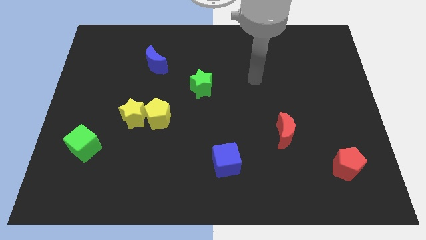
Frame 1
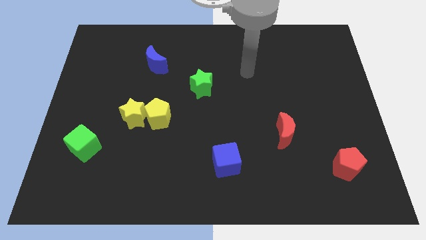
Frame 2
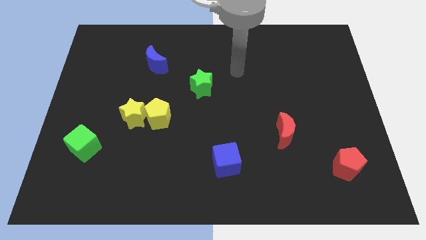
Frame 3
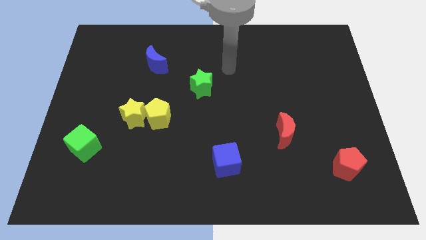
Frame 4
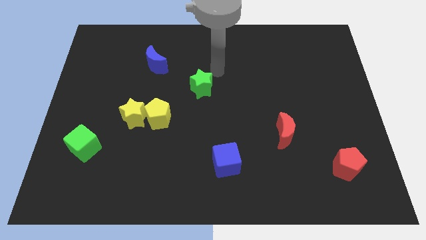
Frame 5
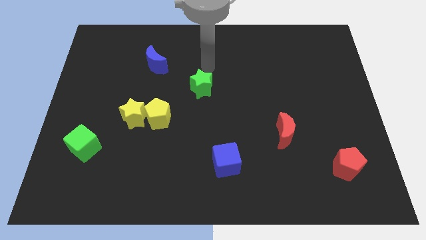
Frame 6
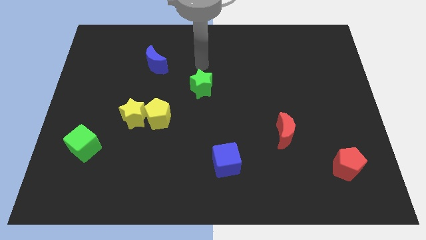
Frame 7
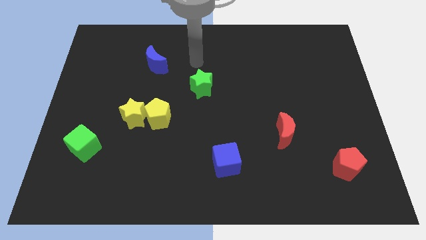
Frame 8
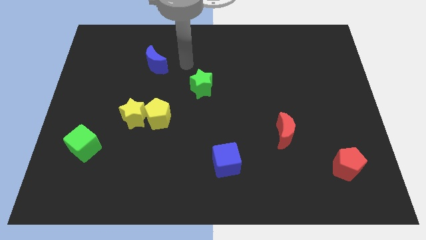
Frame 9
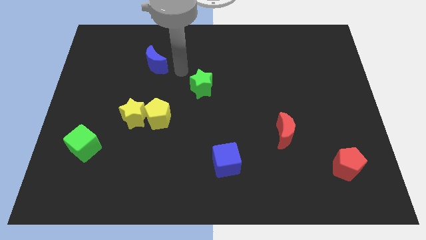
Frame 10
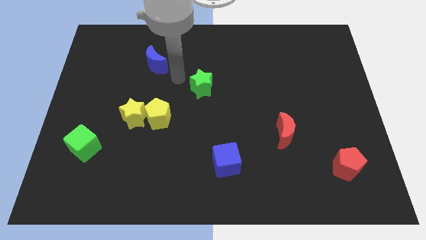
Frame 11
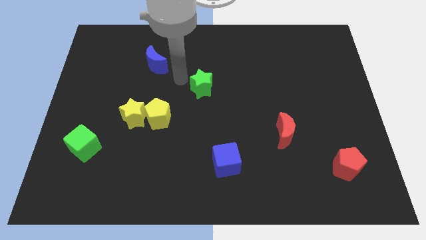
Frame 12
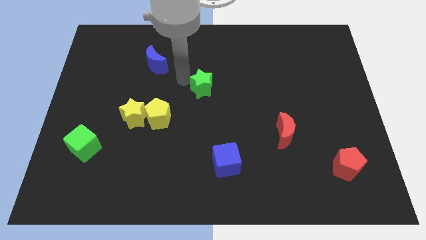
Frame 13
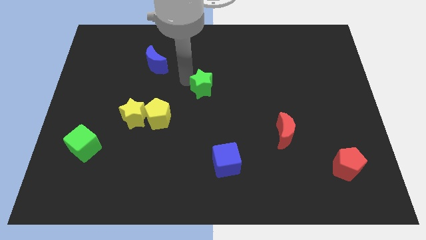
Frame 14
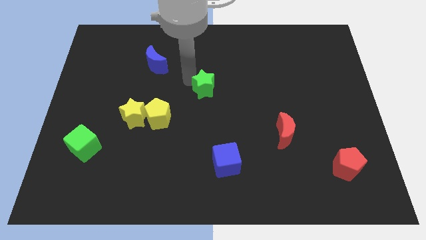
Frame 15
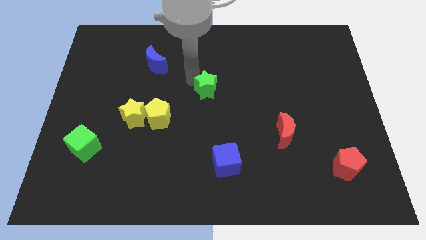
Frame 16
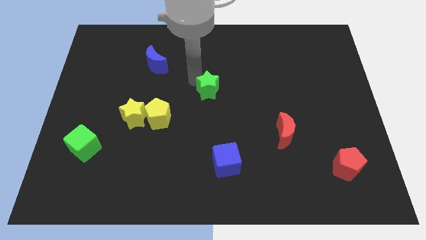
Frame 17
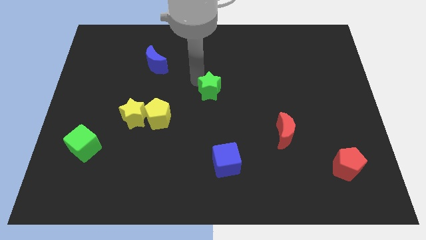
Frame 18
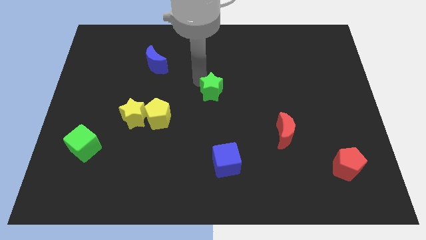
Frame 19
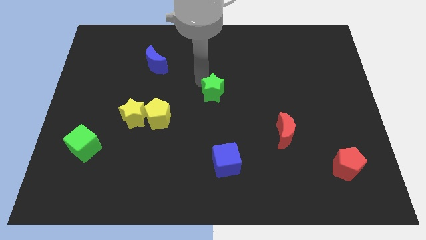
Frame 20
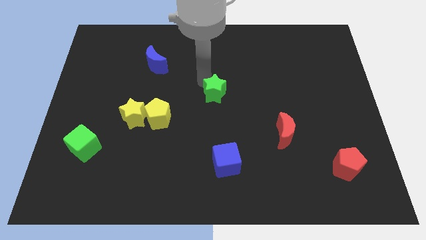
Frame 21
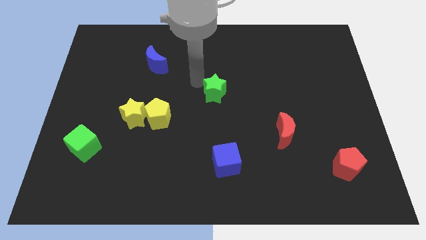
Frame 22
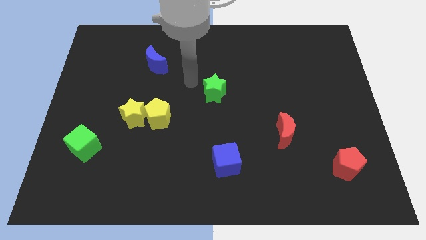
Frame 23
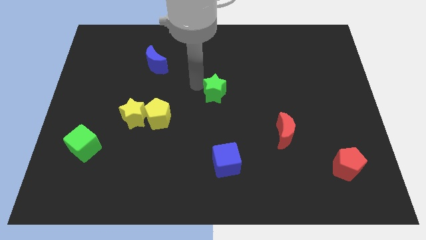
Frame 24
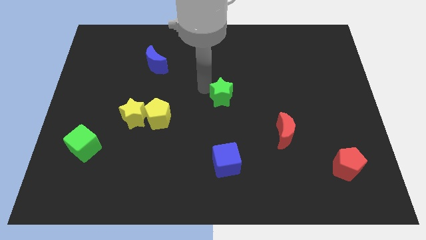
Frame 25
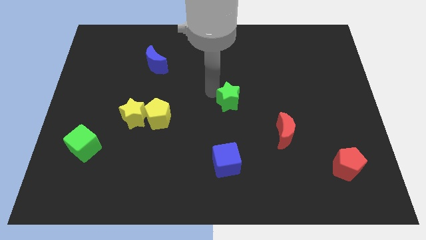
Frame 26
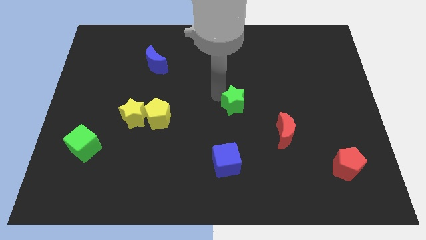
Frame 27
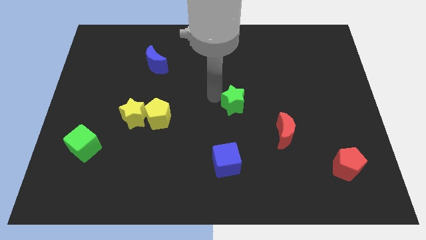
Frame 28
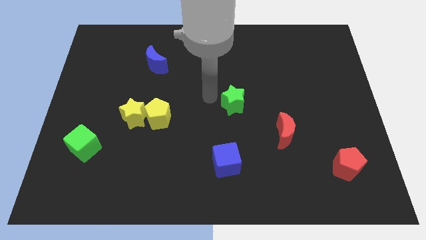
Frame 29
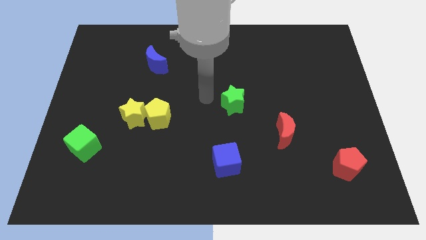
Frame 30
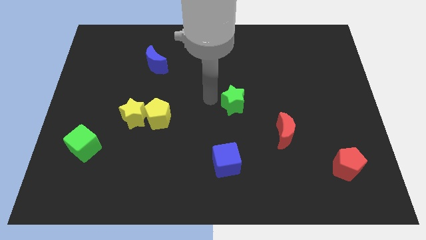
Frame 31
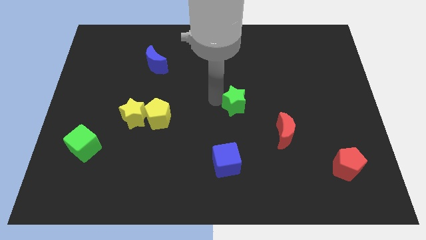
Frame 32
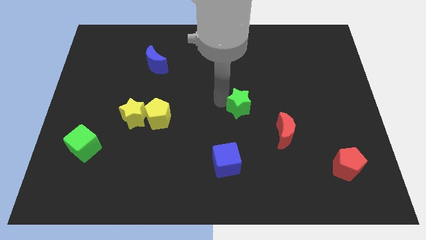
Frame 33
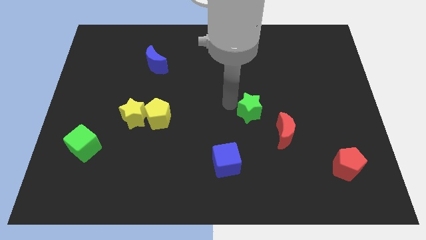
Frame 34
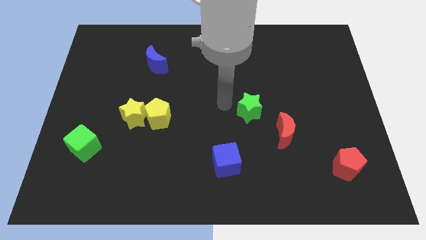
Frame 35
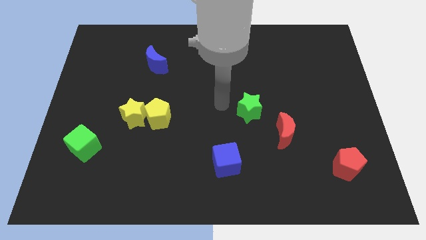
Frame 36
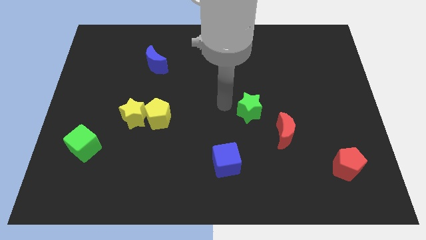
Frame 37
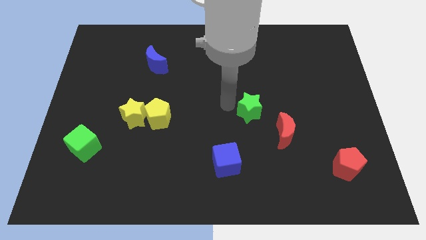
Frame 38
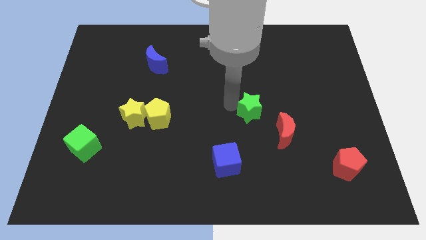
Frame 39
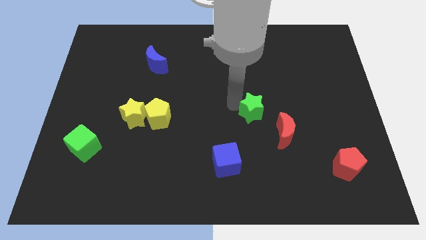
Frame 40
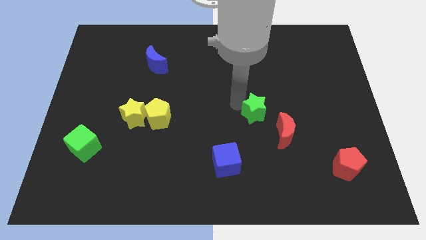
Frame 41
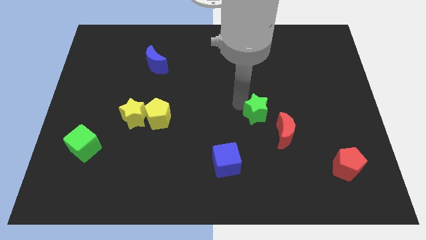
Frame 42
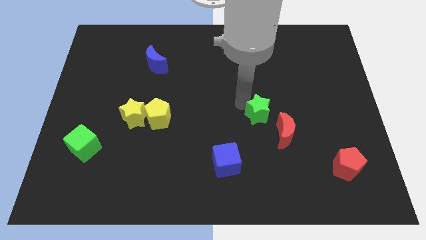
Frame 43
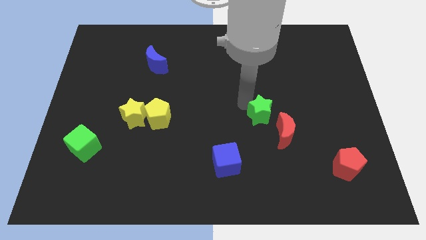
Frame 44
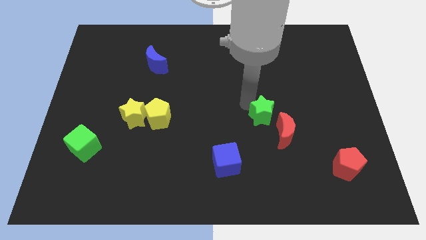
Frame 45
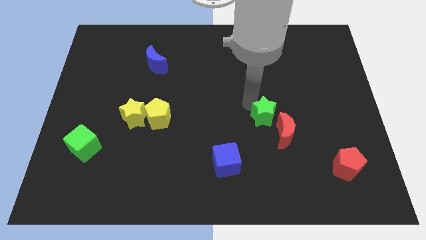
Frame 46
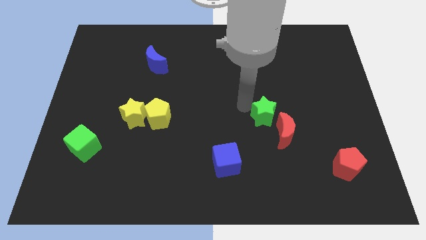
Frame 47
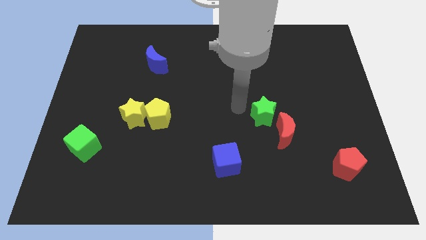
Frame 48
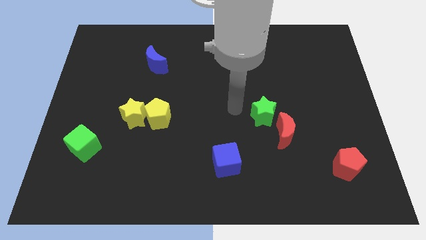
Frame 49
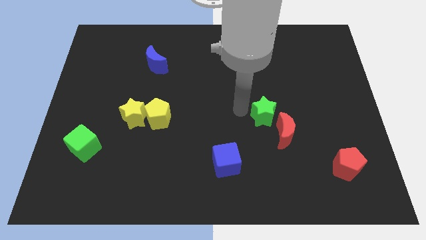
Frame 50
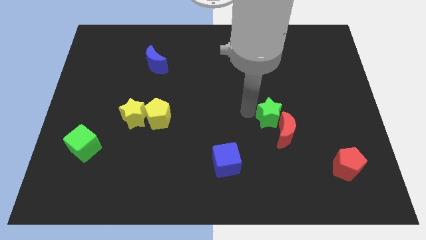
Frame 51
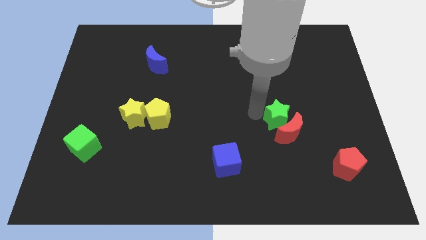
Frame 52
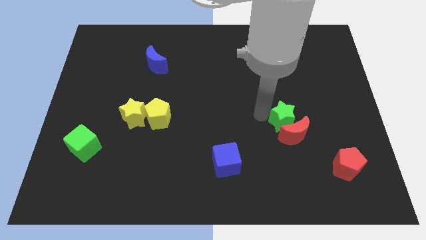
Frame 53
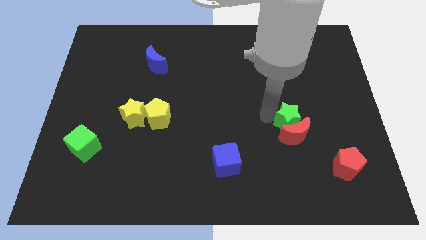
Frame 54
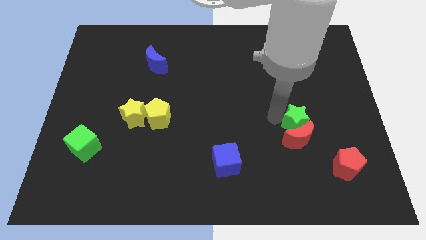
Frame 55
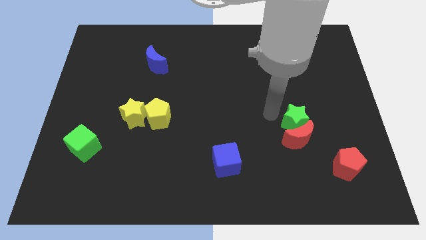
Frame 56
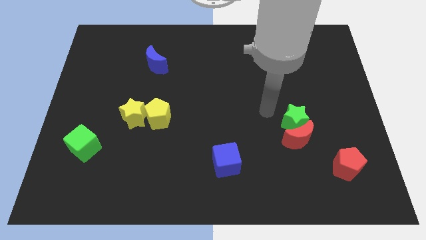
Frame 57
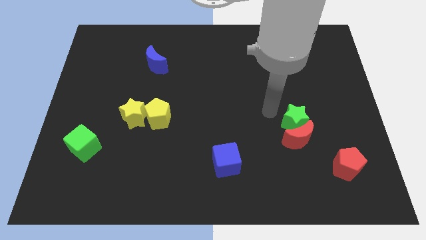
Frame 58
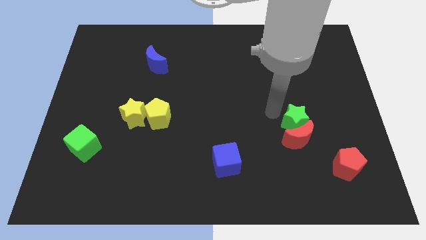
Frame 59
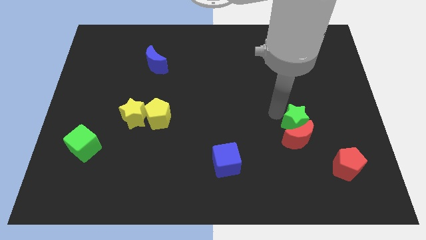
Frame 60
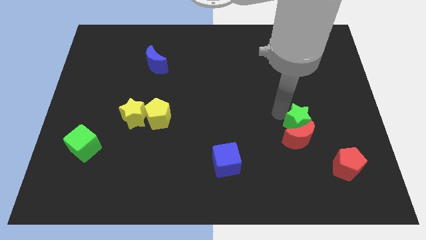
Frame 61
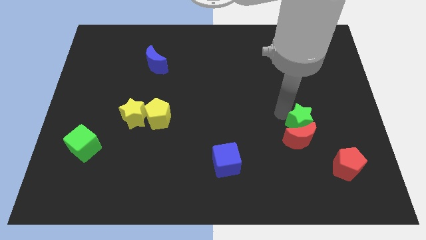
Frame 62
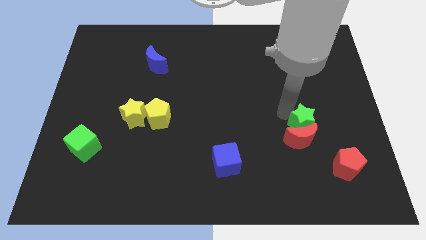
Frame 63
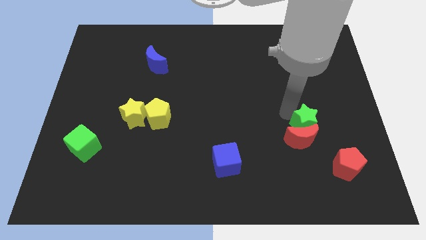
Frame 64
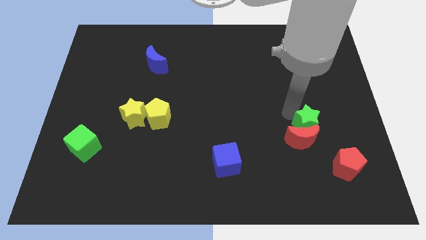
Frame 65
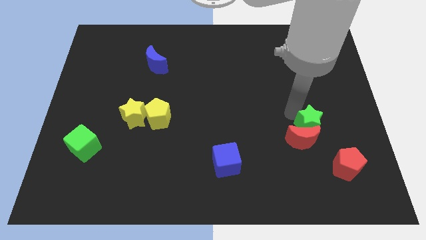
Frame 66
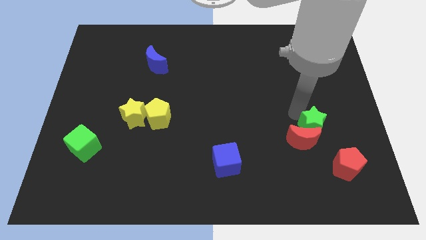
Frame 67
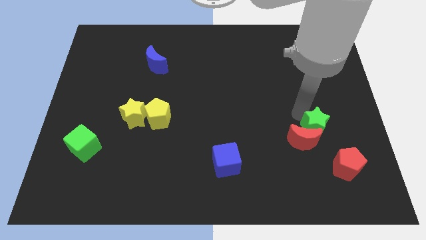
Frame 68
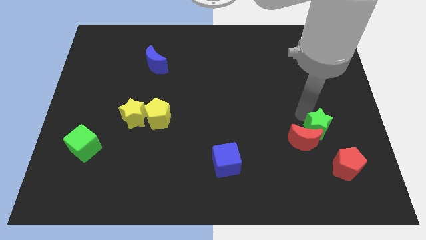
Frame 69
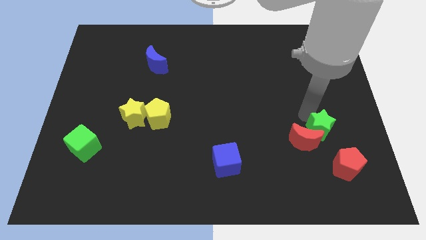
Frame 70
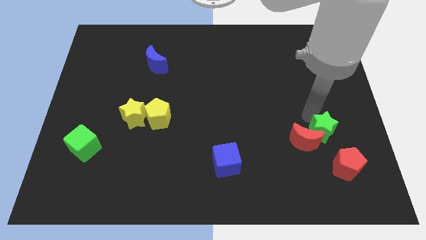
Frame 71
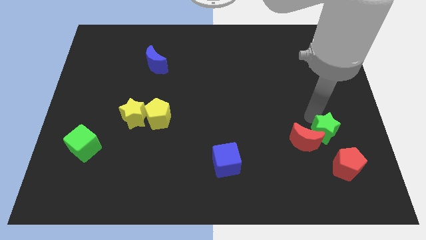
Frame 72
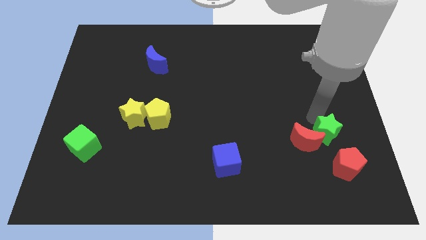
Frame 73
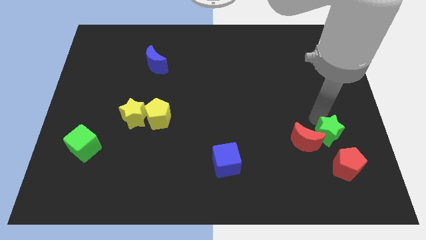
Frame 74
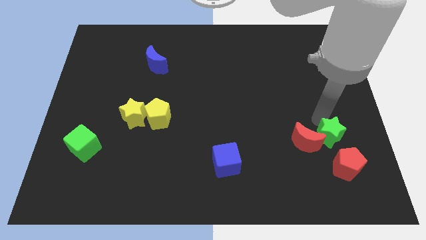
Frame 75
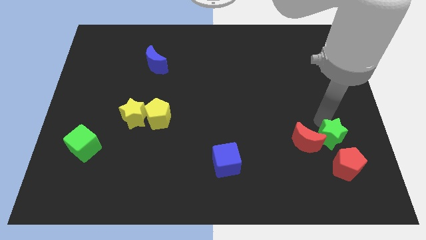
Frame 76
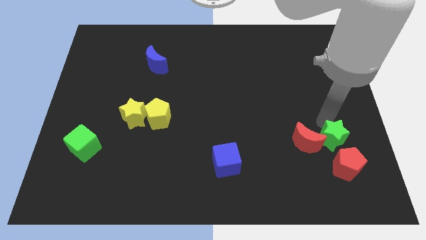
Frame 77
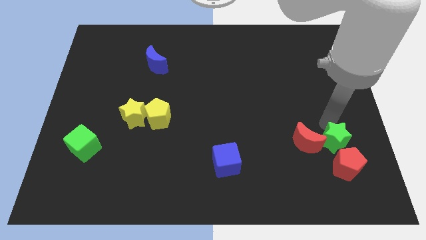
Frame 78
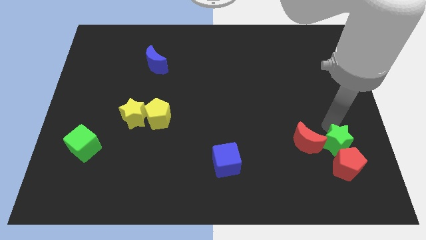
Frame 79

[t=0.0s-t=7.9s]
put the green star to the red pentagon
